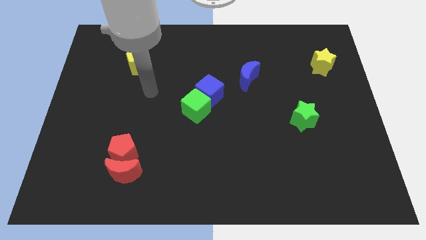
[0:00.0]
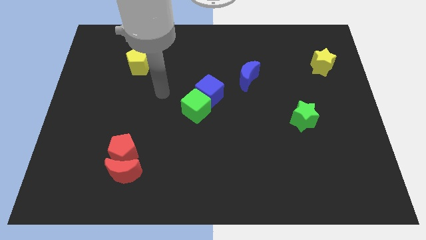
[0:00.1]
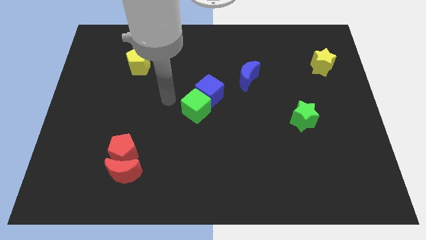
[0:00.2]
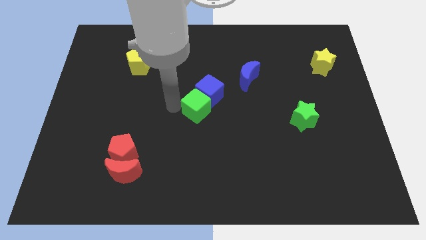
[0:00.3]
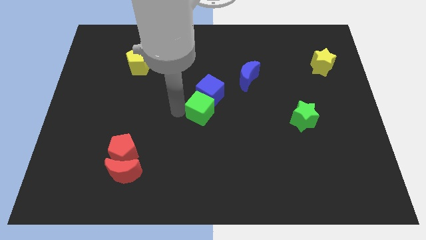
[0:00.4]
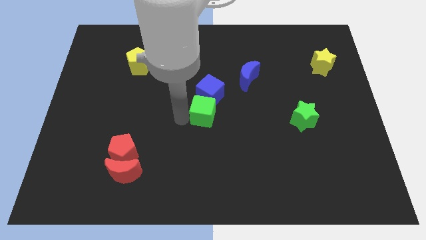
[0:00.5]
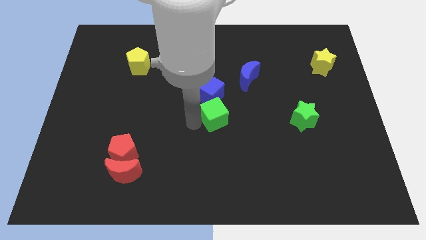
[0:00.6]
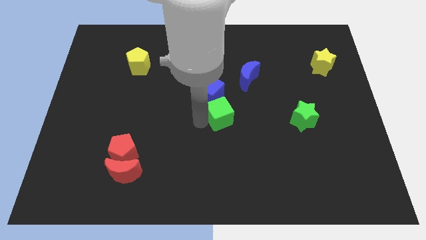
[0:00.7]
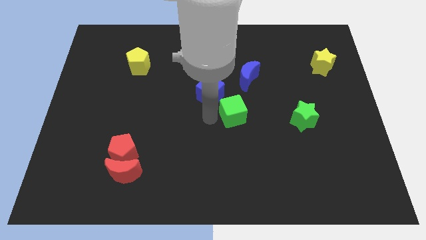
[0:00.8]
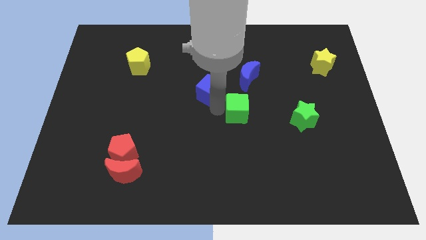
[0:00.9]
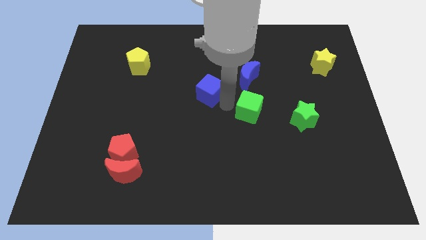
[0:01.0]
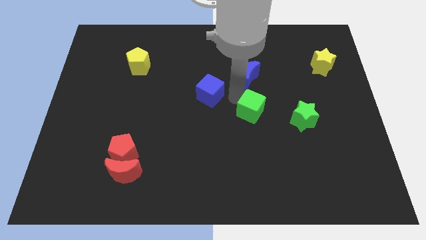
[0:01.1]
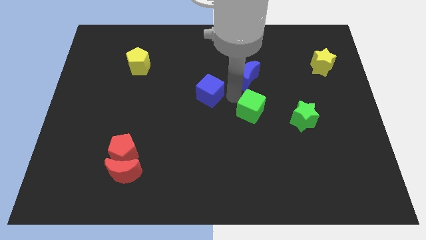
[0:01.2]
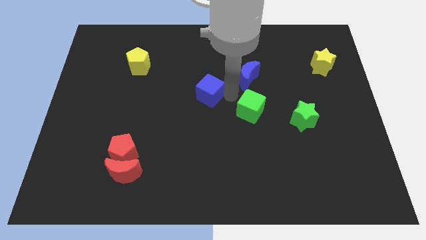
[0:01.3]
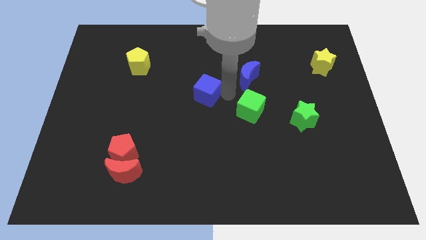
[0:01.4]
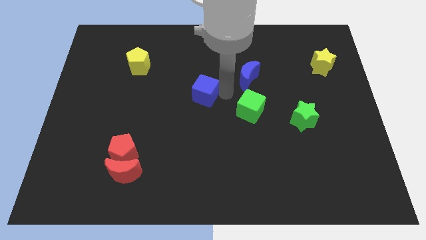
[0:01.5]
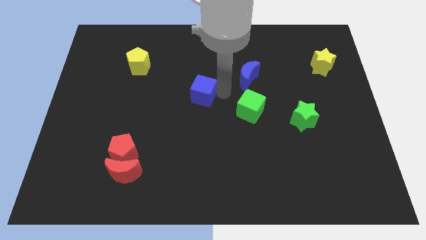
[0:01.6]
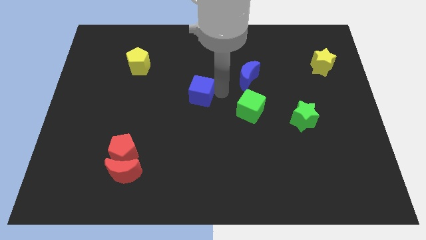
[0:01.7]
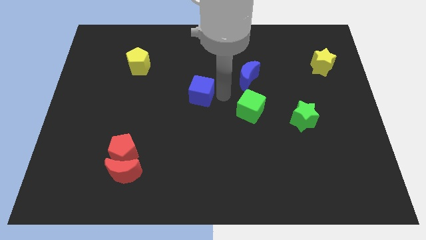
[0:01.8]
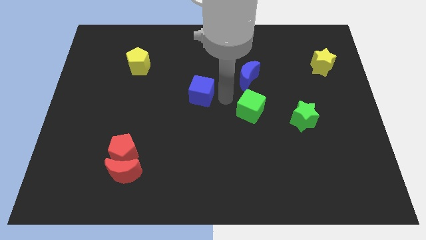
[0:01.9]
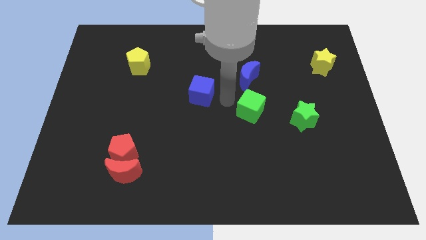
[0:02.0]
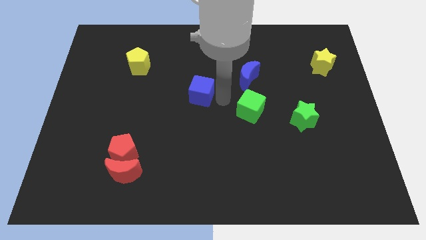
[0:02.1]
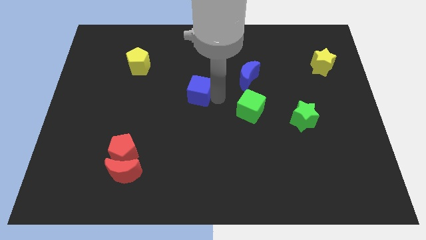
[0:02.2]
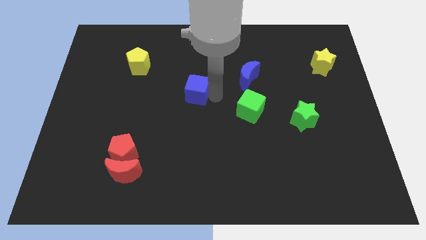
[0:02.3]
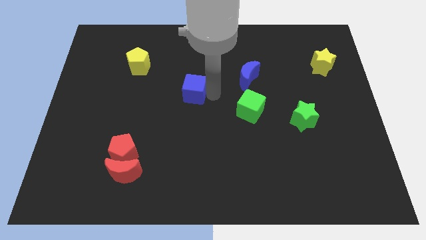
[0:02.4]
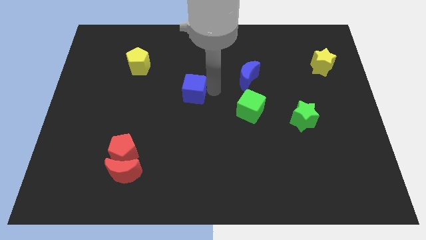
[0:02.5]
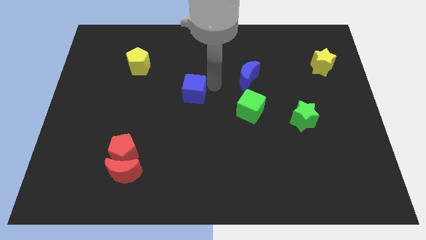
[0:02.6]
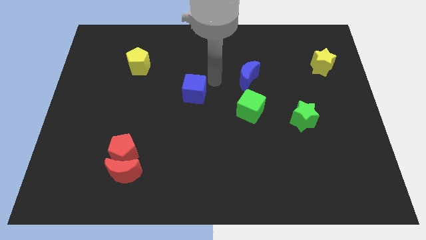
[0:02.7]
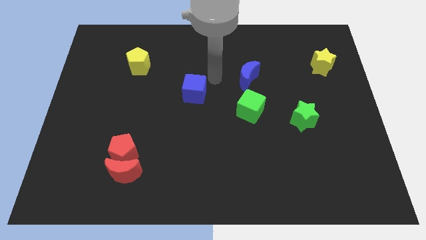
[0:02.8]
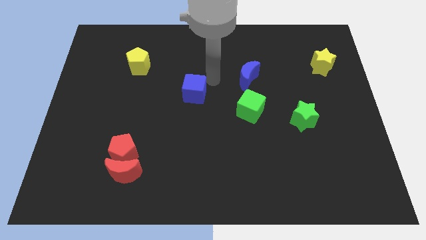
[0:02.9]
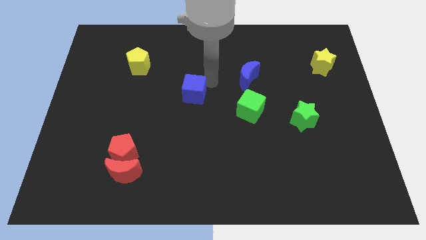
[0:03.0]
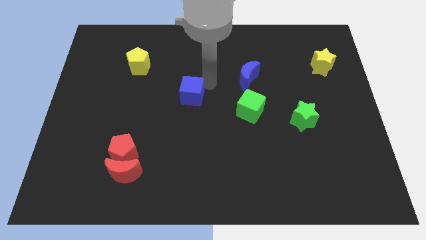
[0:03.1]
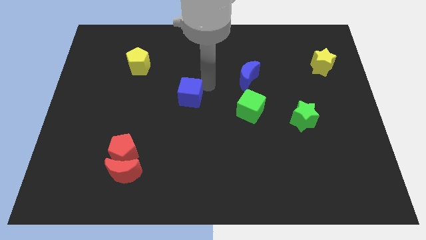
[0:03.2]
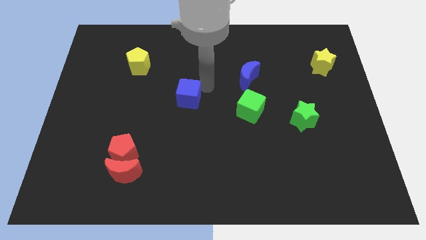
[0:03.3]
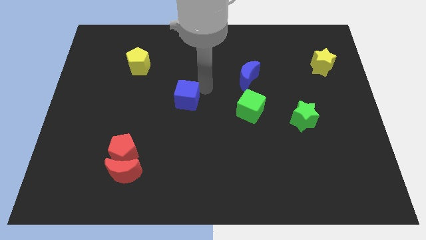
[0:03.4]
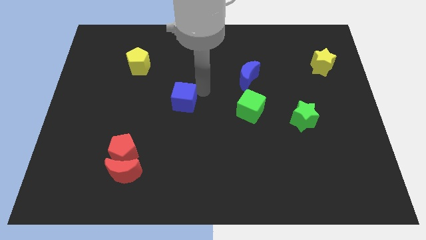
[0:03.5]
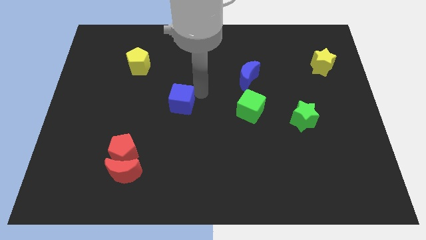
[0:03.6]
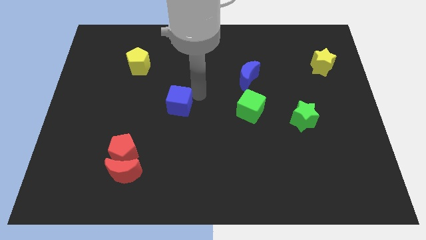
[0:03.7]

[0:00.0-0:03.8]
move the blue cube diagonally downwards and to the left a bit

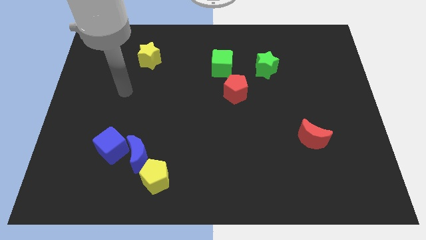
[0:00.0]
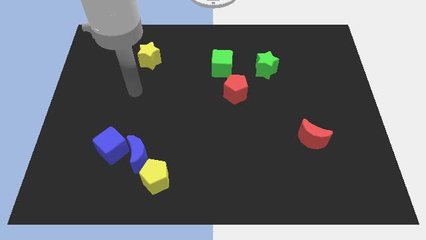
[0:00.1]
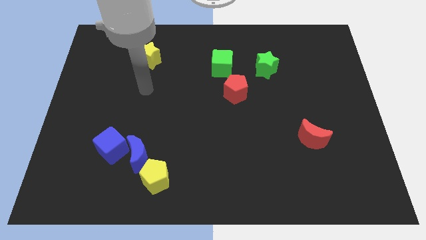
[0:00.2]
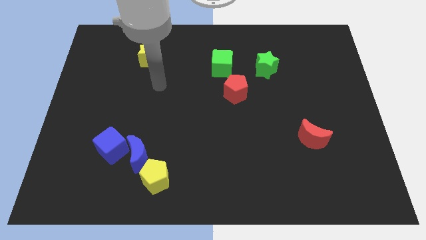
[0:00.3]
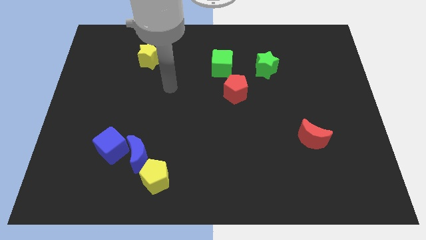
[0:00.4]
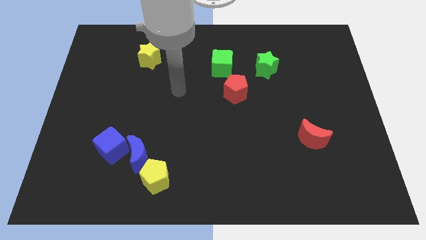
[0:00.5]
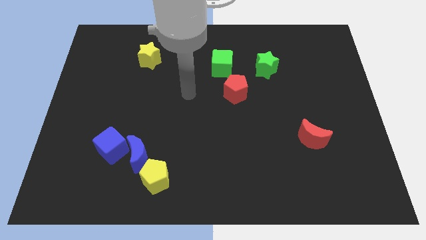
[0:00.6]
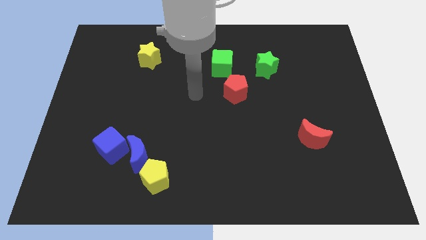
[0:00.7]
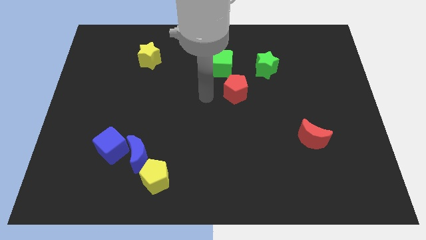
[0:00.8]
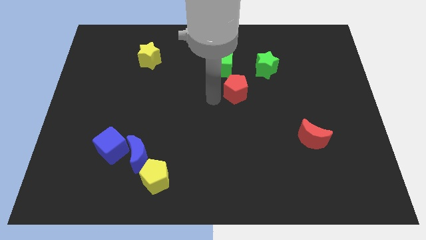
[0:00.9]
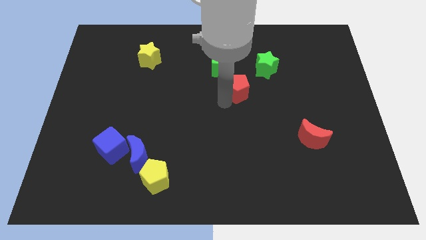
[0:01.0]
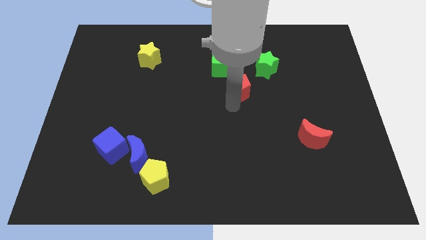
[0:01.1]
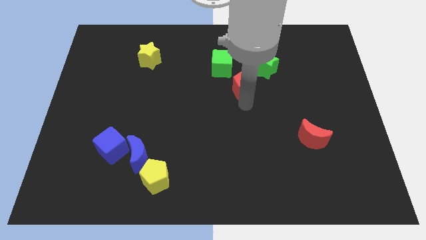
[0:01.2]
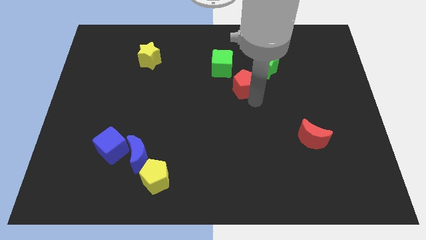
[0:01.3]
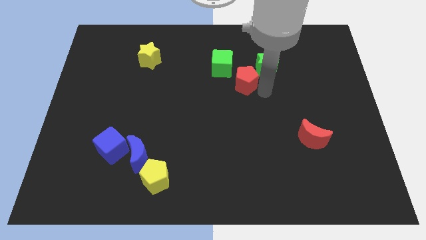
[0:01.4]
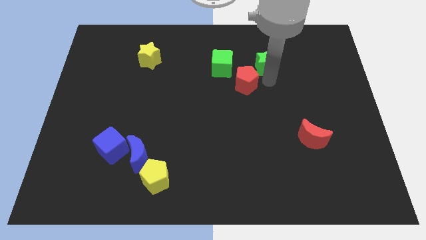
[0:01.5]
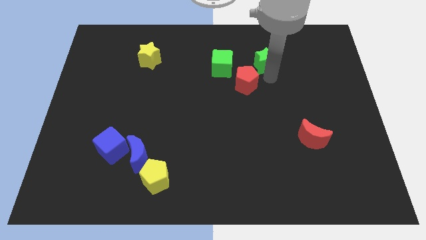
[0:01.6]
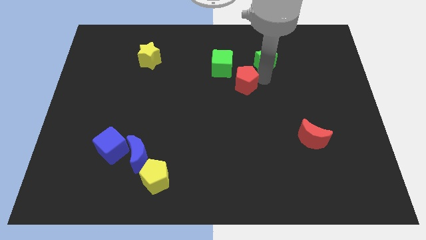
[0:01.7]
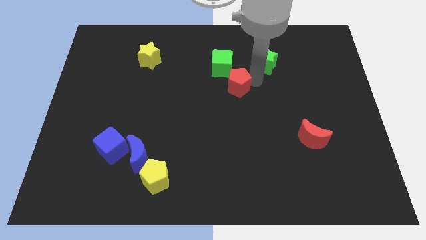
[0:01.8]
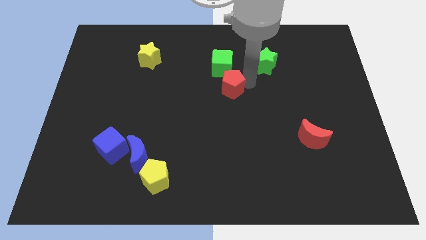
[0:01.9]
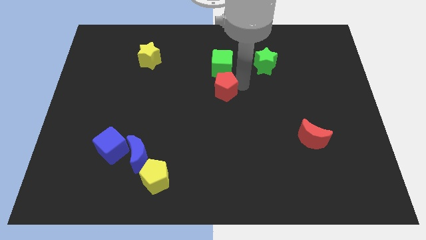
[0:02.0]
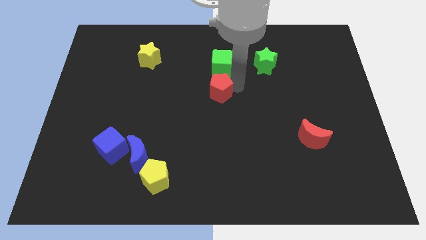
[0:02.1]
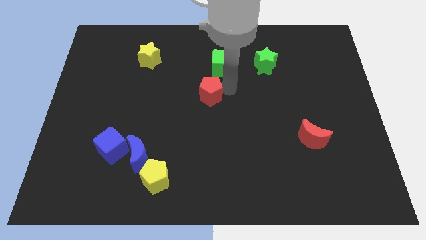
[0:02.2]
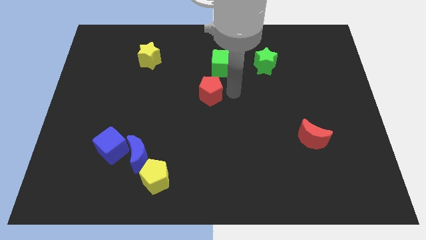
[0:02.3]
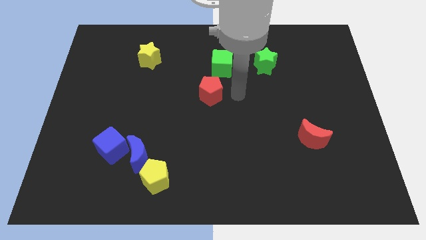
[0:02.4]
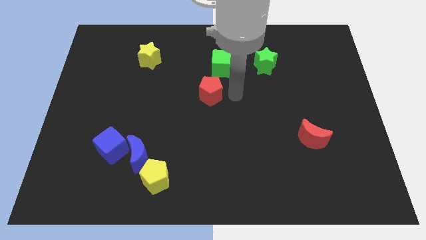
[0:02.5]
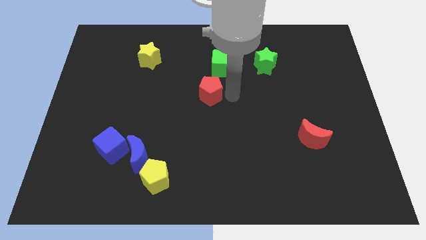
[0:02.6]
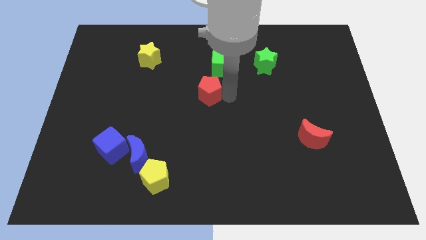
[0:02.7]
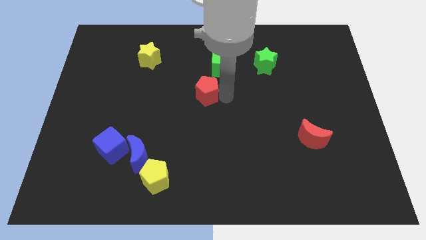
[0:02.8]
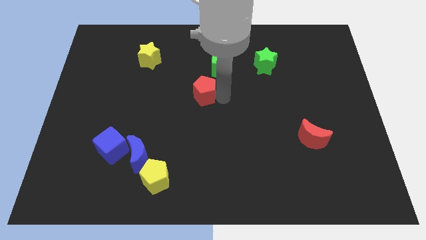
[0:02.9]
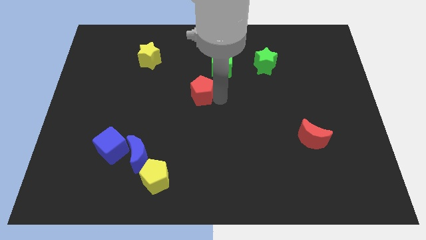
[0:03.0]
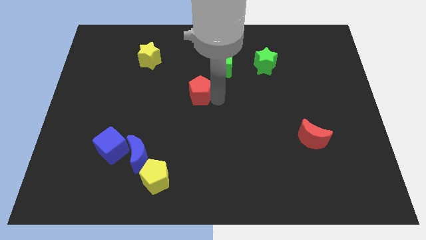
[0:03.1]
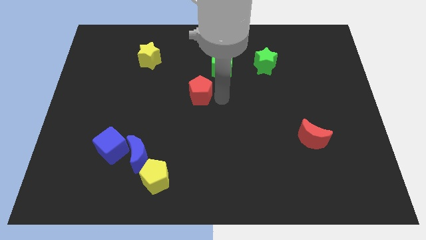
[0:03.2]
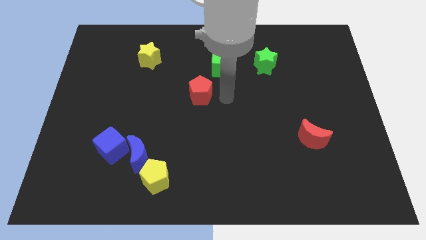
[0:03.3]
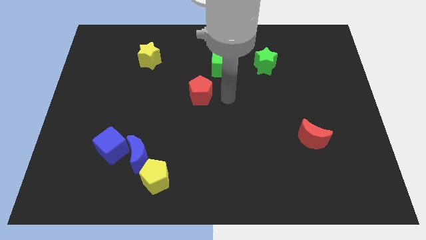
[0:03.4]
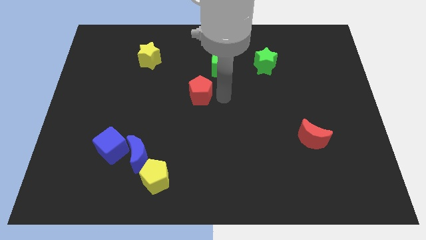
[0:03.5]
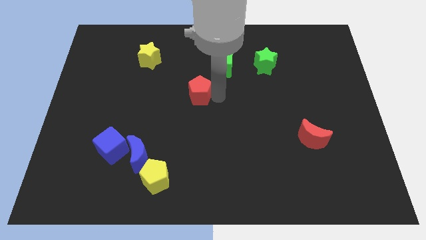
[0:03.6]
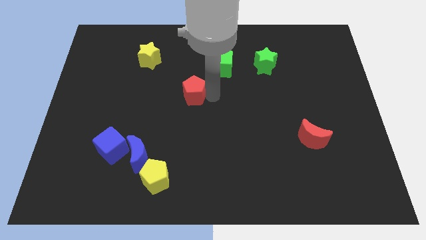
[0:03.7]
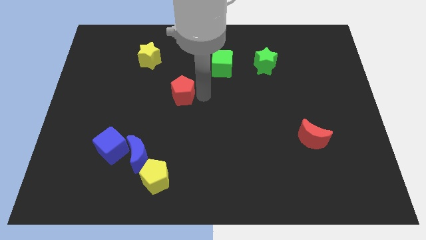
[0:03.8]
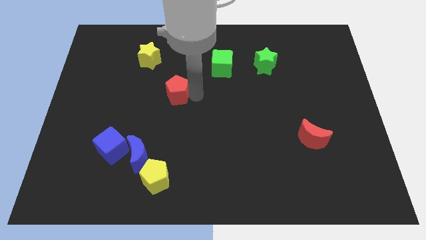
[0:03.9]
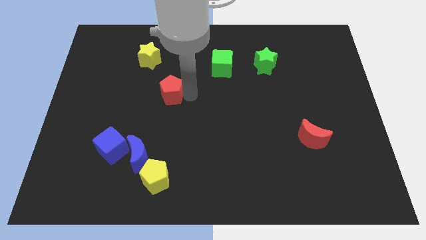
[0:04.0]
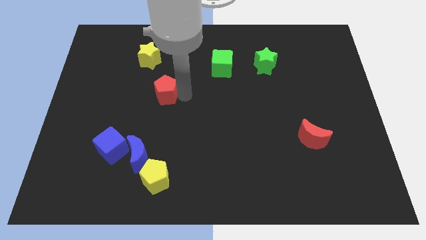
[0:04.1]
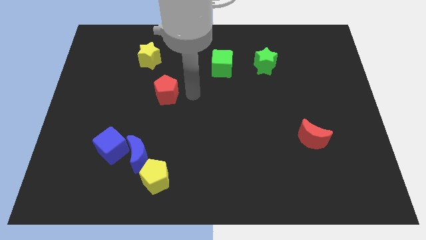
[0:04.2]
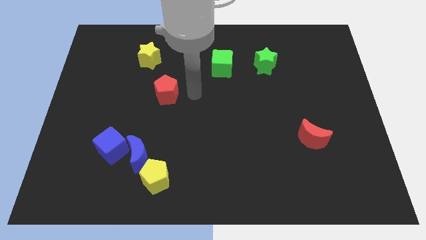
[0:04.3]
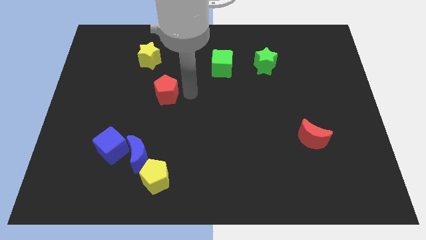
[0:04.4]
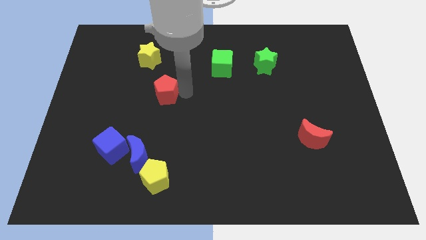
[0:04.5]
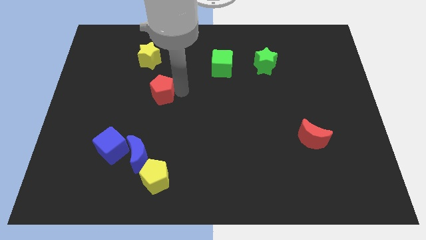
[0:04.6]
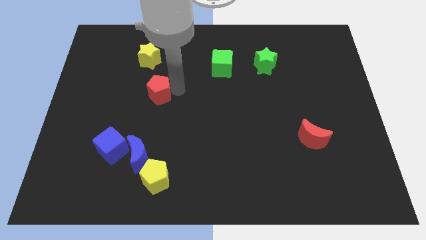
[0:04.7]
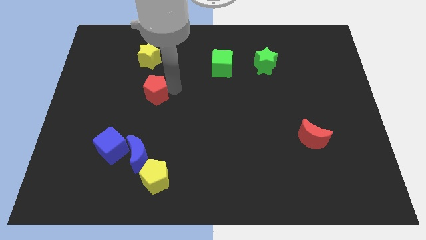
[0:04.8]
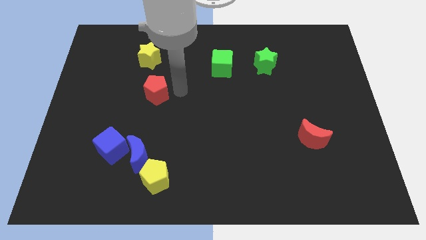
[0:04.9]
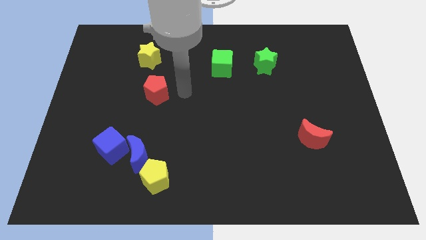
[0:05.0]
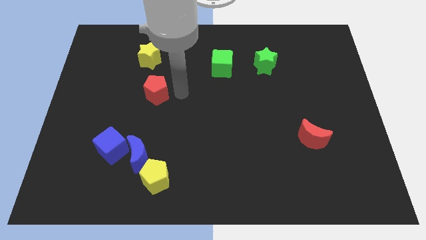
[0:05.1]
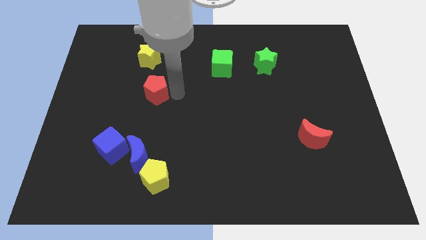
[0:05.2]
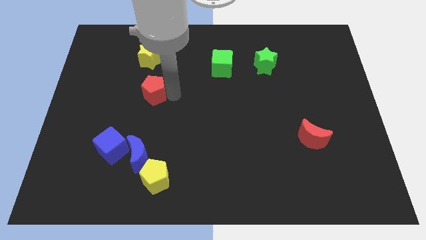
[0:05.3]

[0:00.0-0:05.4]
move the red pentagon to the left
